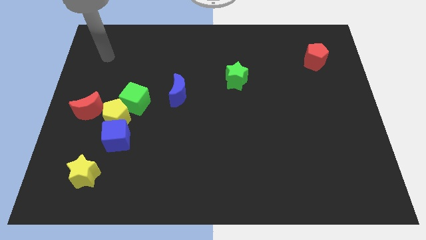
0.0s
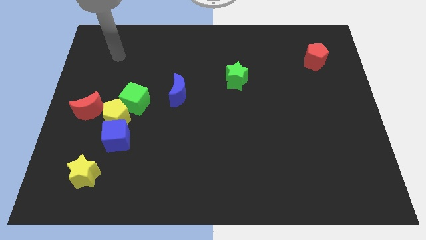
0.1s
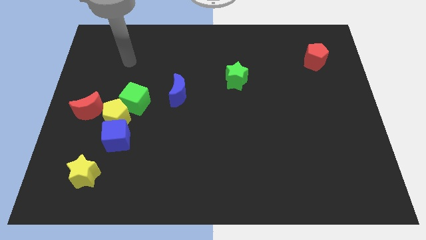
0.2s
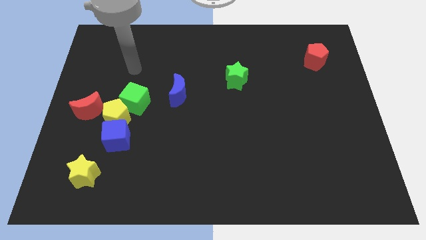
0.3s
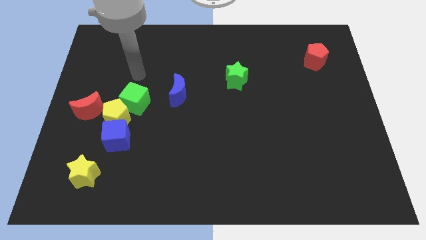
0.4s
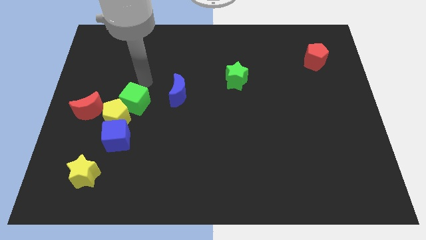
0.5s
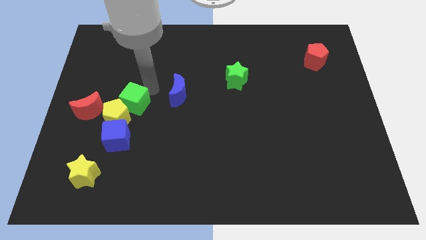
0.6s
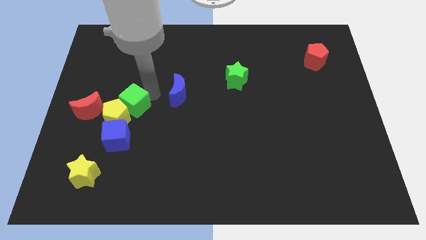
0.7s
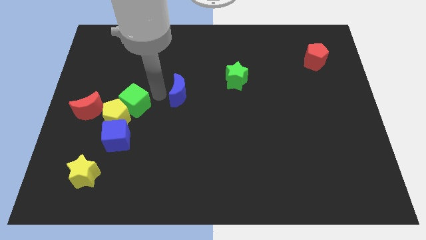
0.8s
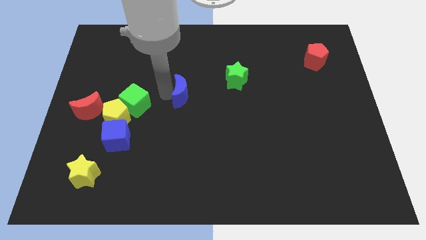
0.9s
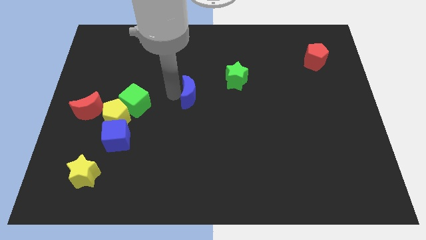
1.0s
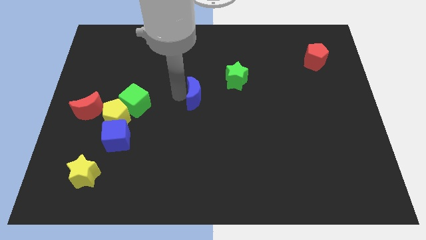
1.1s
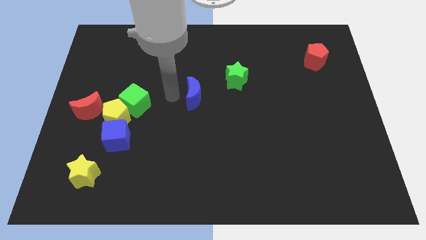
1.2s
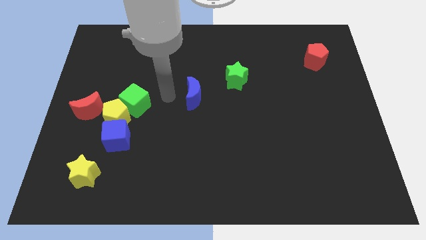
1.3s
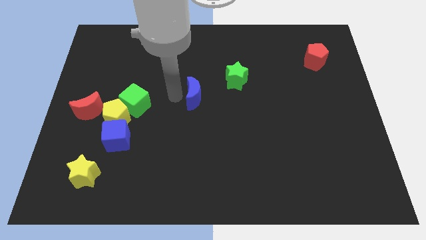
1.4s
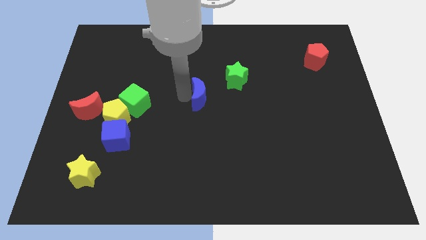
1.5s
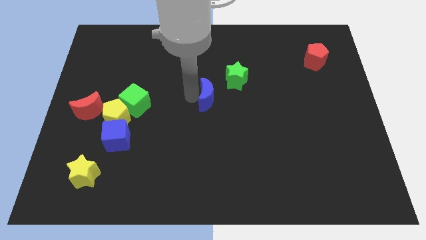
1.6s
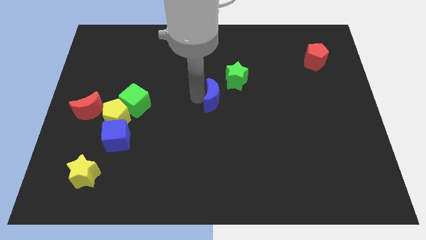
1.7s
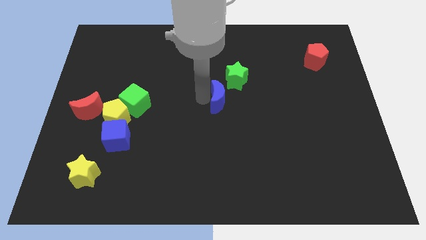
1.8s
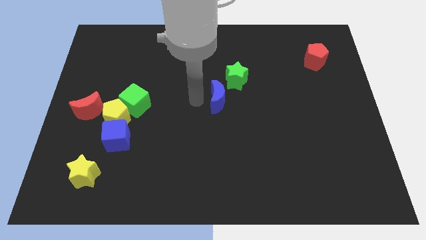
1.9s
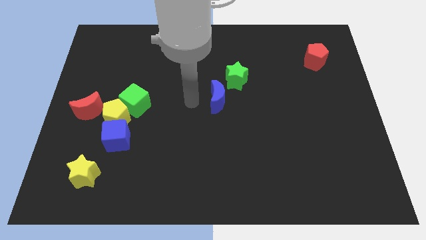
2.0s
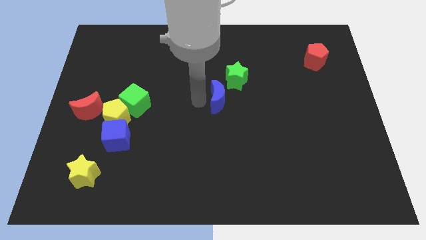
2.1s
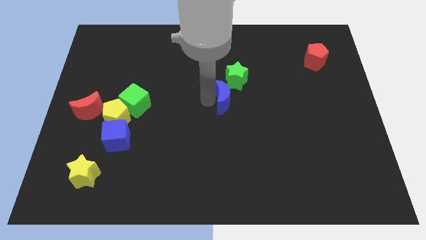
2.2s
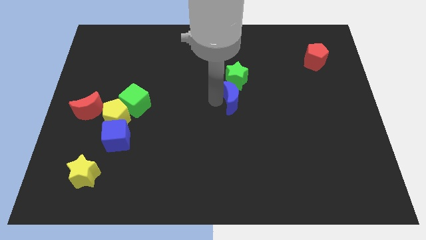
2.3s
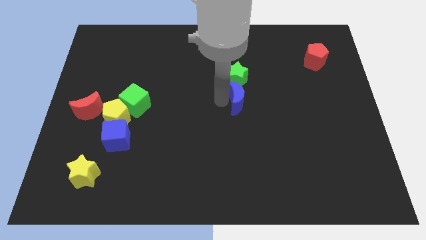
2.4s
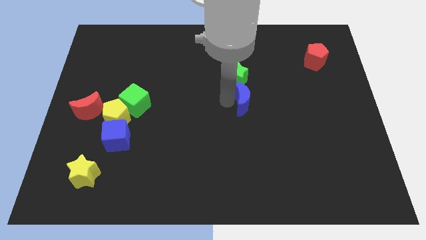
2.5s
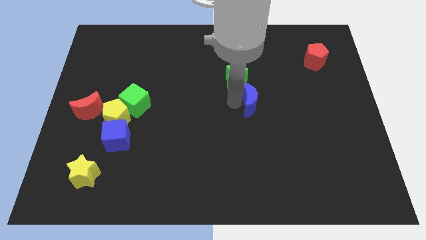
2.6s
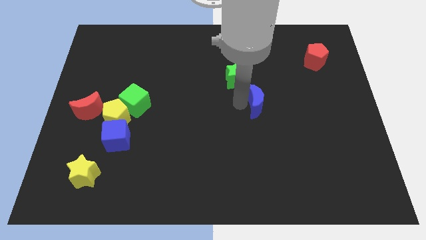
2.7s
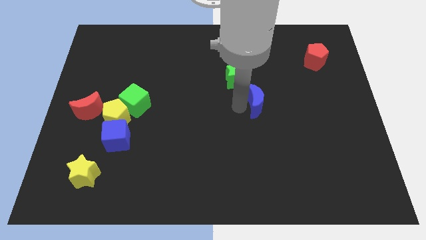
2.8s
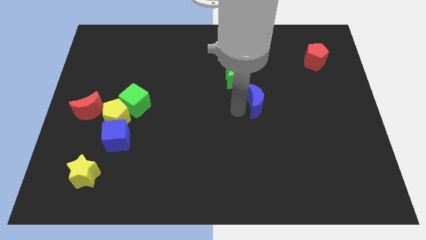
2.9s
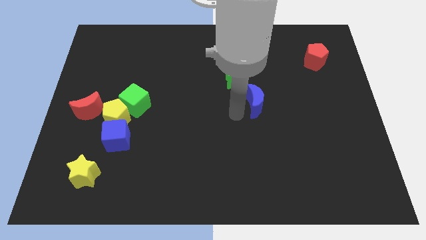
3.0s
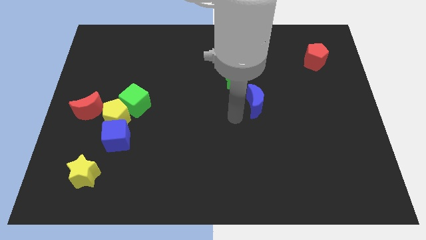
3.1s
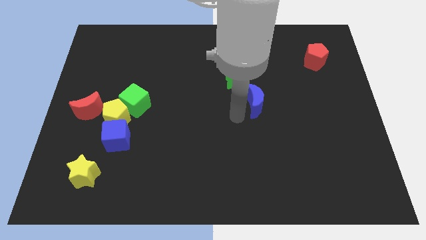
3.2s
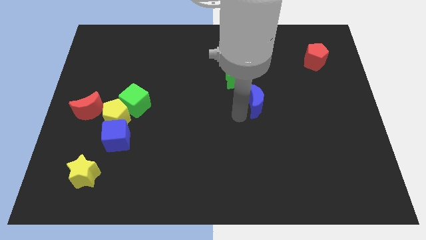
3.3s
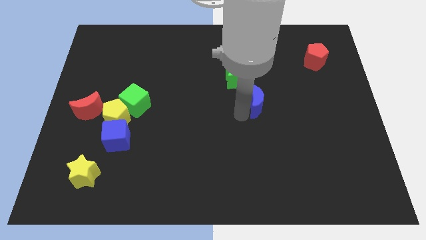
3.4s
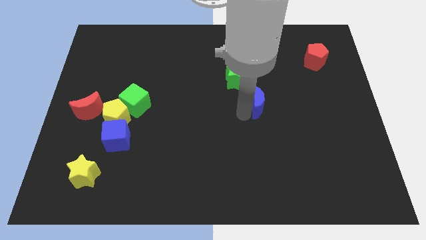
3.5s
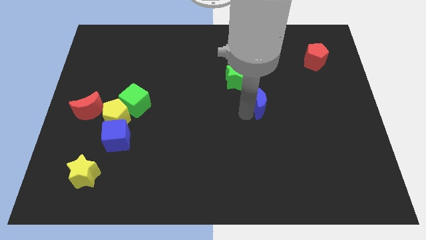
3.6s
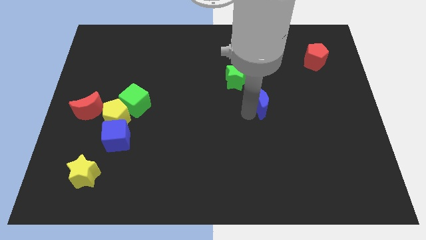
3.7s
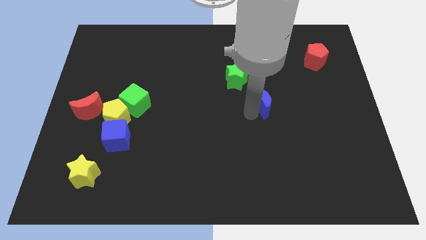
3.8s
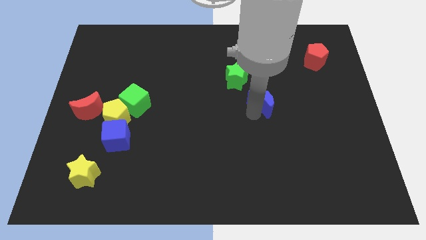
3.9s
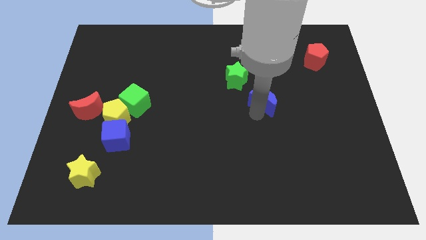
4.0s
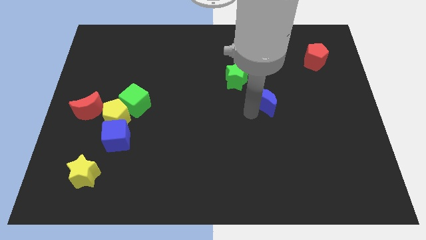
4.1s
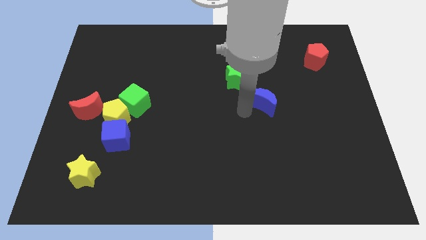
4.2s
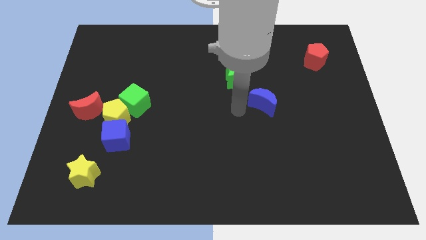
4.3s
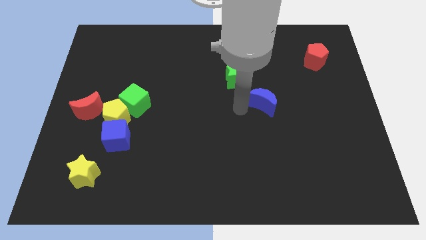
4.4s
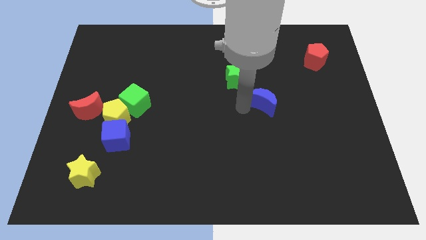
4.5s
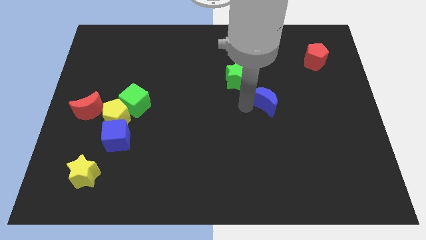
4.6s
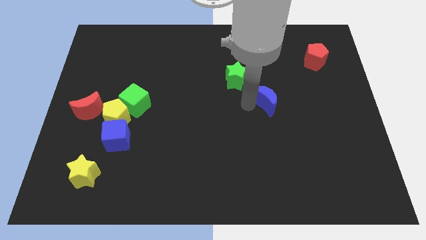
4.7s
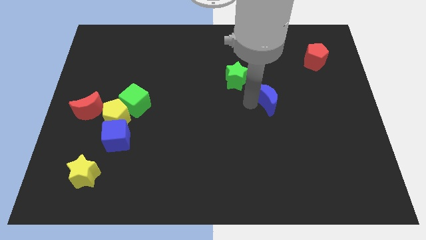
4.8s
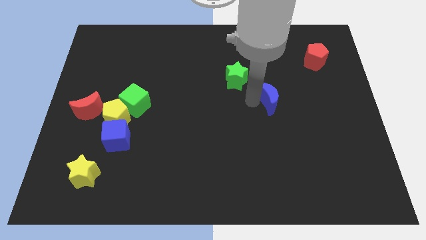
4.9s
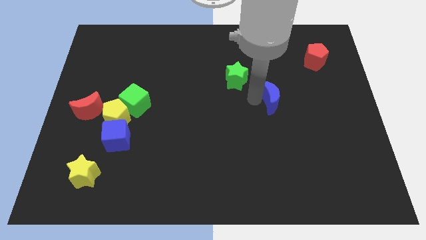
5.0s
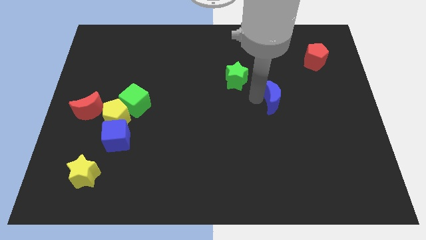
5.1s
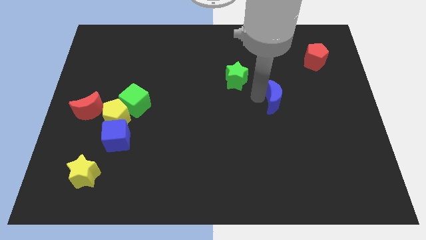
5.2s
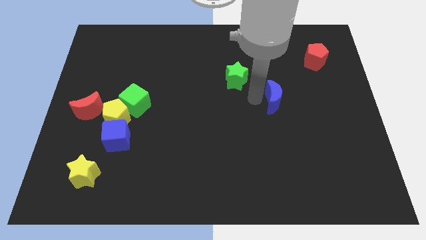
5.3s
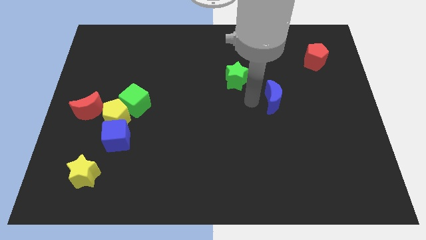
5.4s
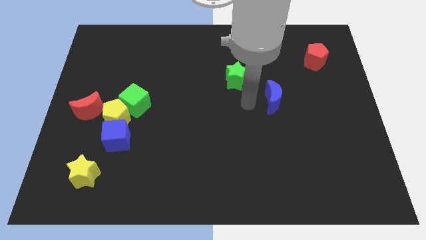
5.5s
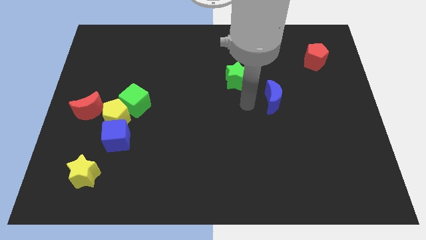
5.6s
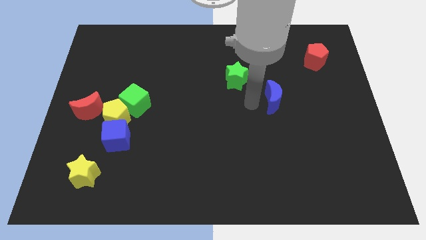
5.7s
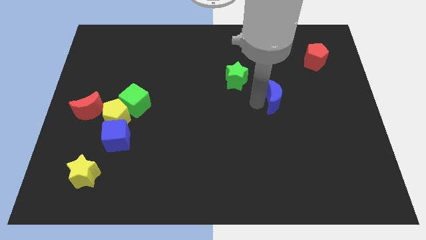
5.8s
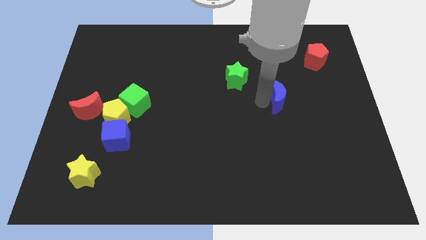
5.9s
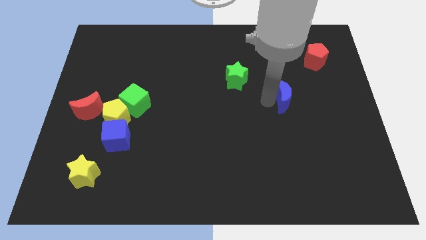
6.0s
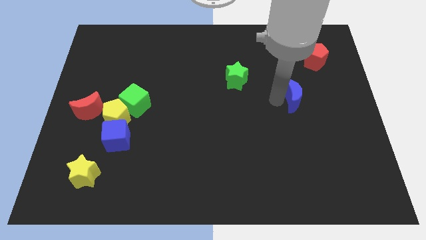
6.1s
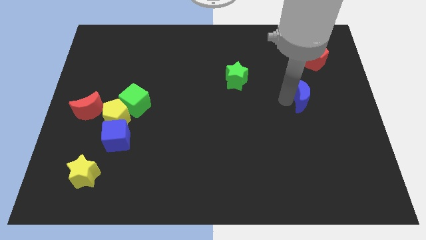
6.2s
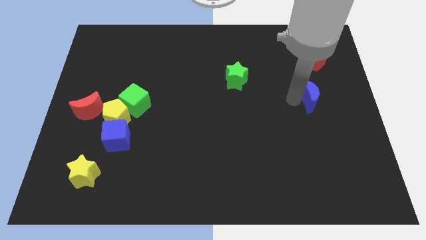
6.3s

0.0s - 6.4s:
slide the blue moon to the bottom of the red pentagon

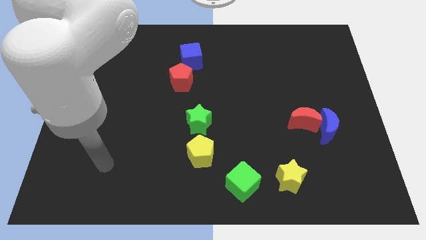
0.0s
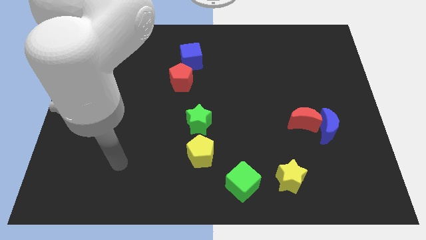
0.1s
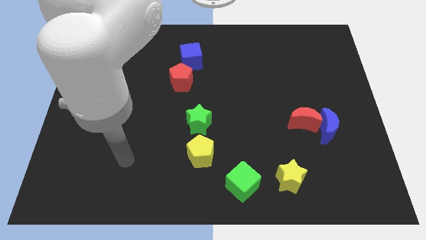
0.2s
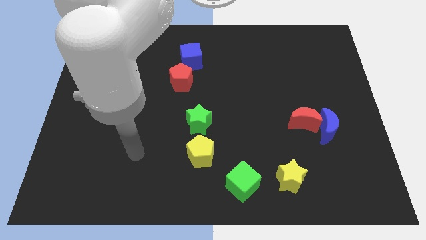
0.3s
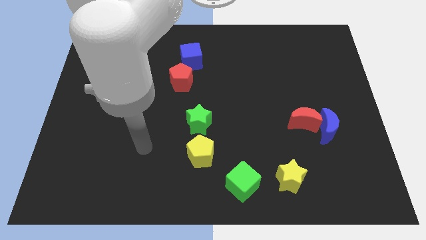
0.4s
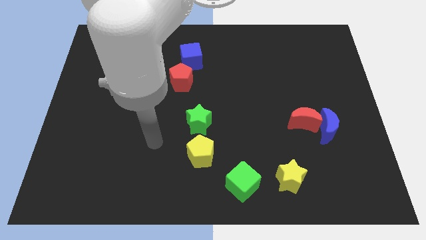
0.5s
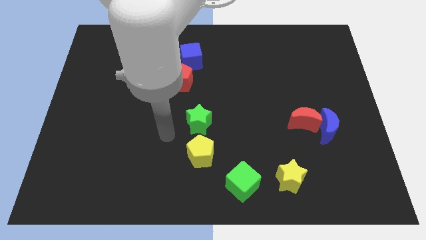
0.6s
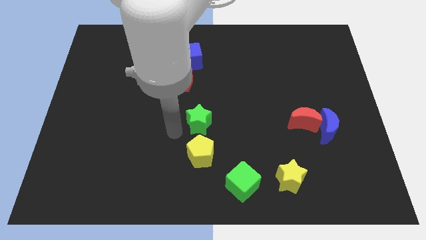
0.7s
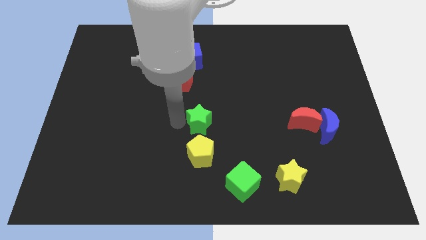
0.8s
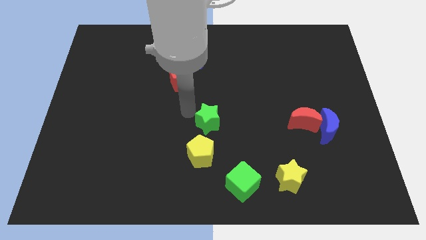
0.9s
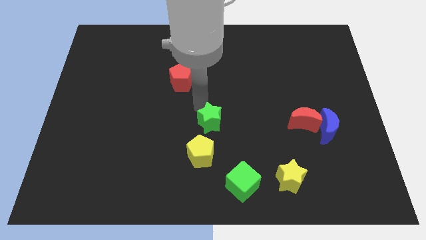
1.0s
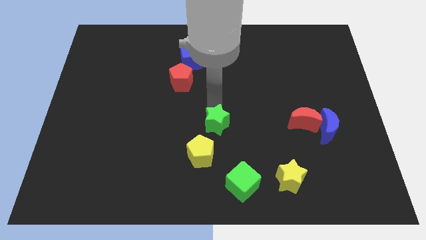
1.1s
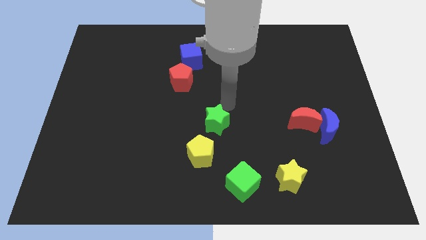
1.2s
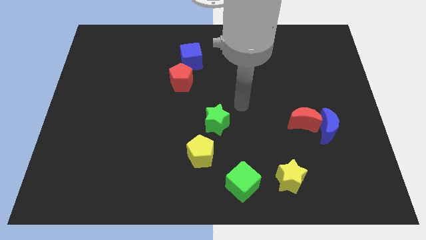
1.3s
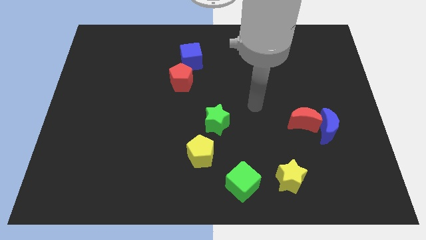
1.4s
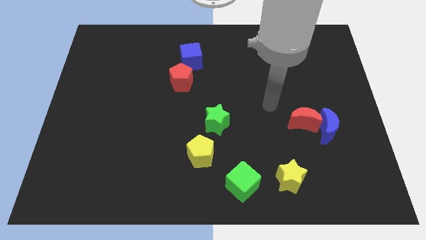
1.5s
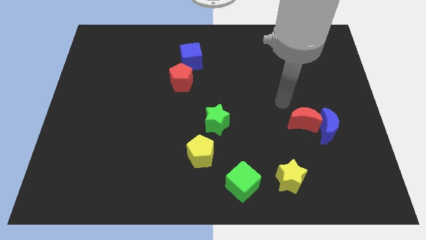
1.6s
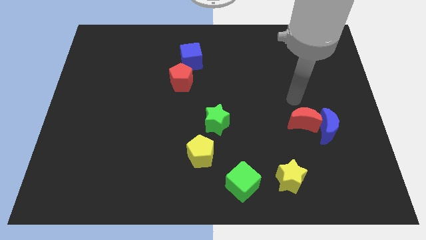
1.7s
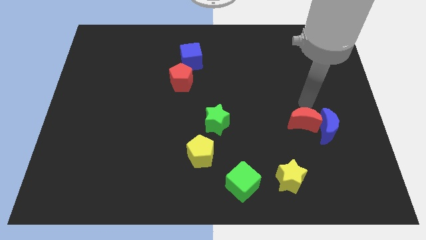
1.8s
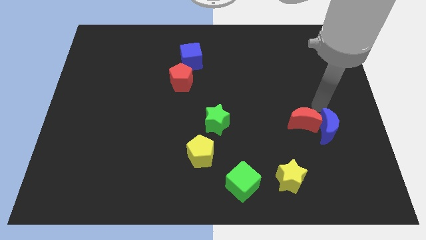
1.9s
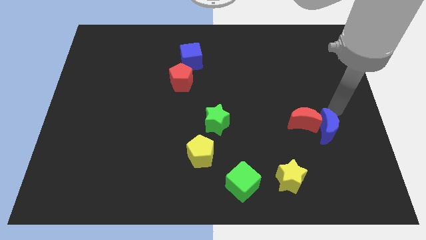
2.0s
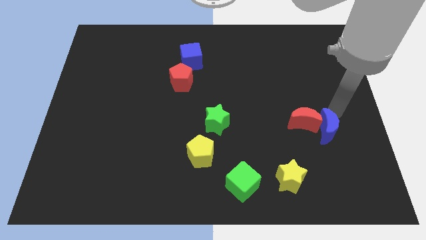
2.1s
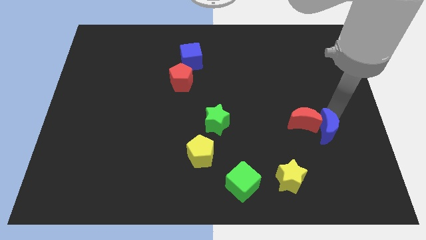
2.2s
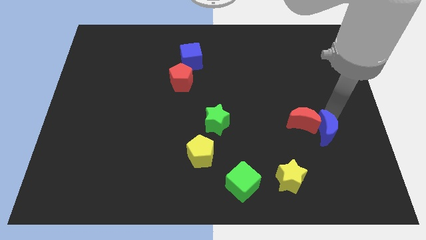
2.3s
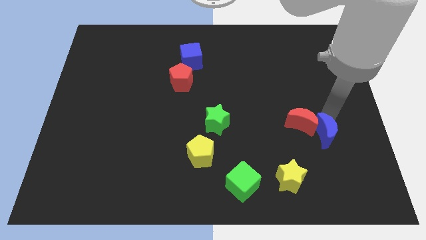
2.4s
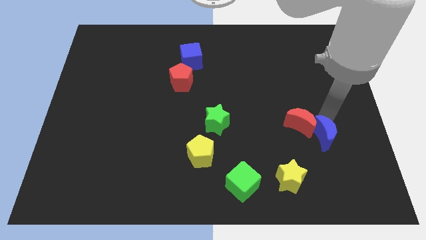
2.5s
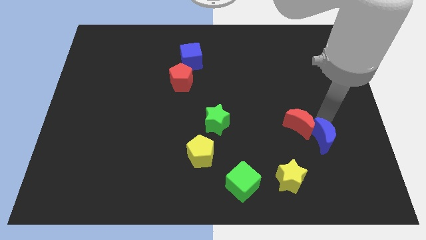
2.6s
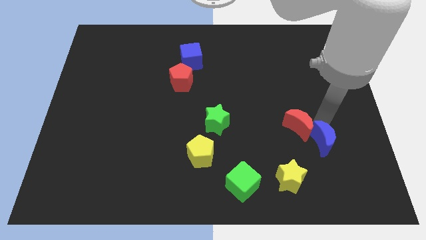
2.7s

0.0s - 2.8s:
push the blue moon to the top right of the yellow star
